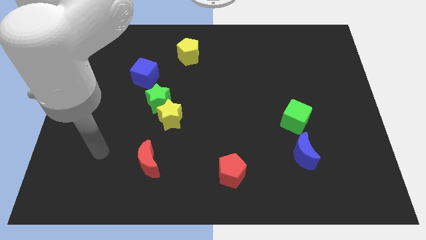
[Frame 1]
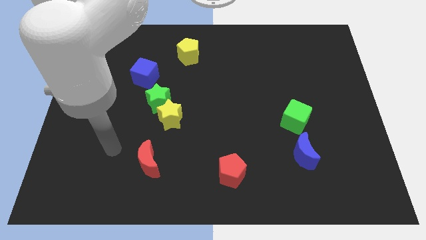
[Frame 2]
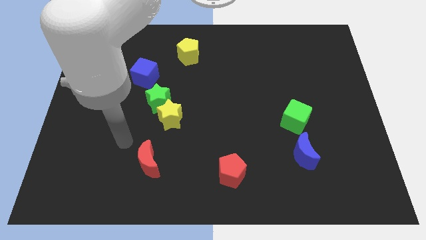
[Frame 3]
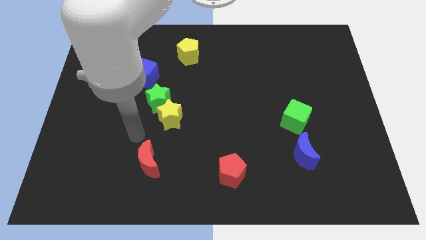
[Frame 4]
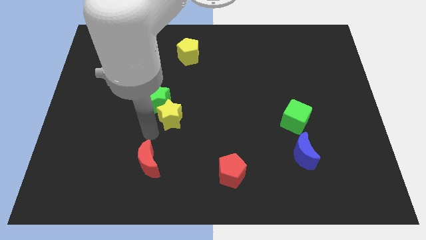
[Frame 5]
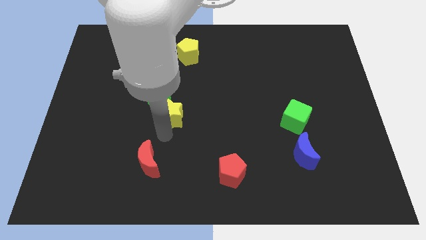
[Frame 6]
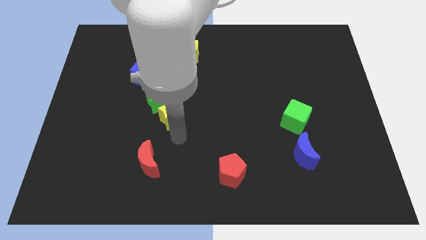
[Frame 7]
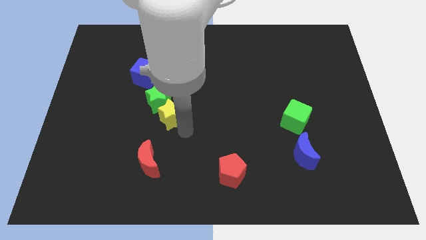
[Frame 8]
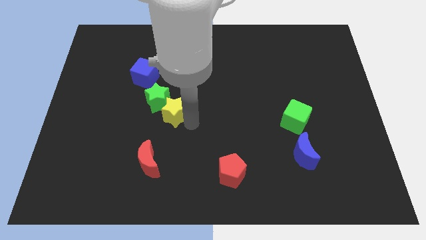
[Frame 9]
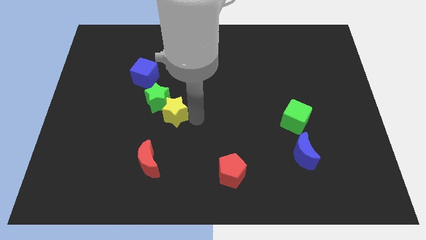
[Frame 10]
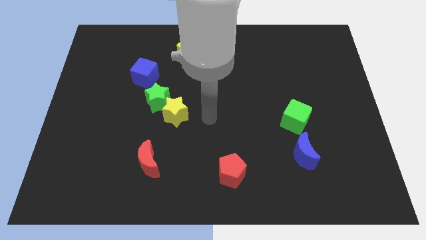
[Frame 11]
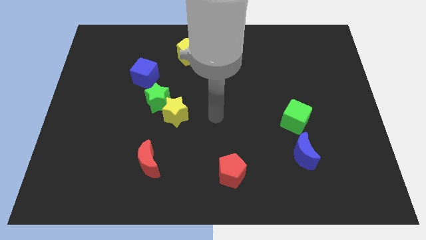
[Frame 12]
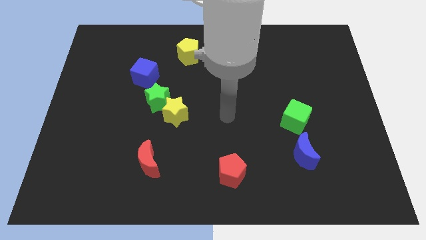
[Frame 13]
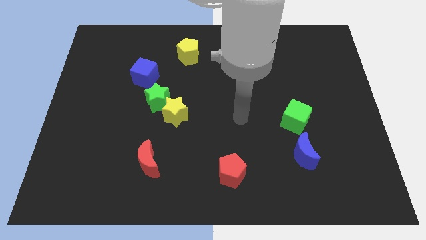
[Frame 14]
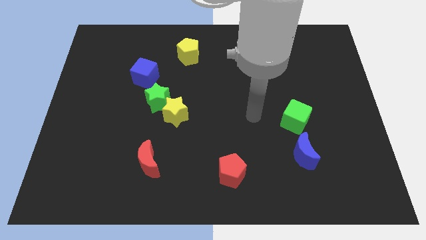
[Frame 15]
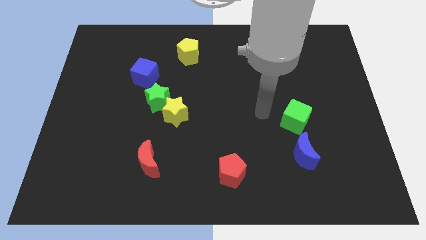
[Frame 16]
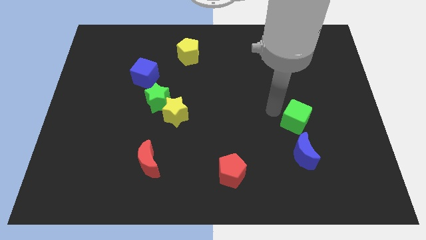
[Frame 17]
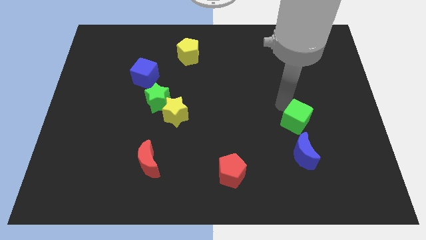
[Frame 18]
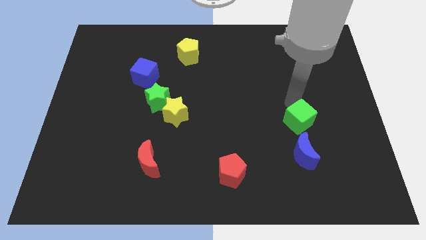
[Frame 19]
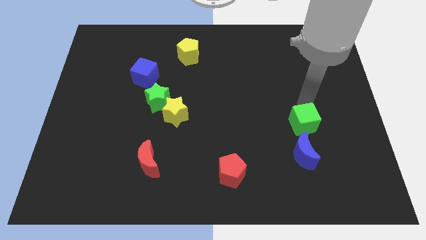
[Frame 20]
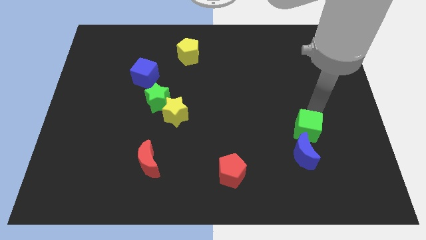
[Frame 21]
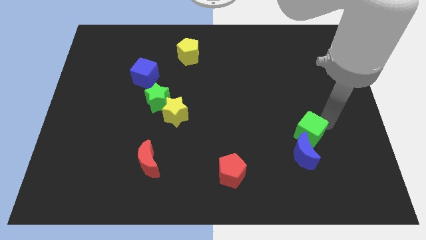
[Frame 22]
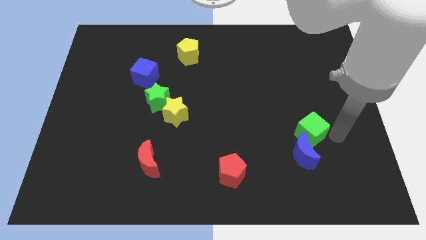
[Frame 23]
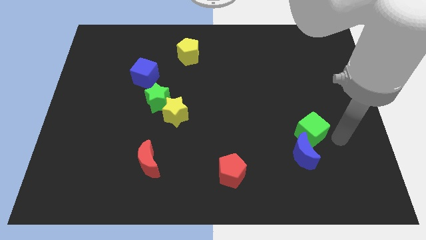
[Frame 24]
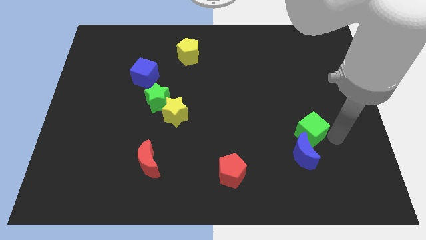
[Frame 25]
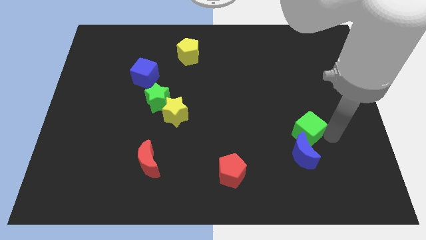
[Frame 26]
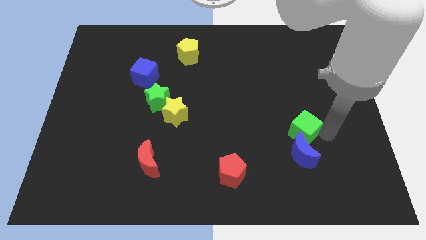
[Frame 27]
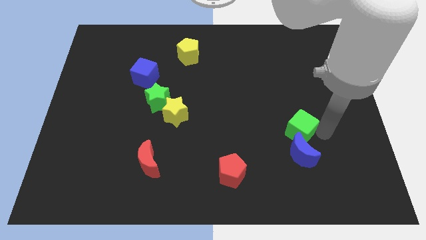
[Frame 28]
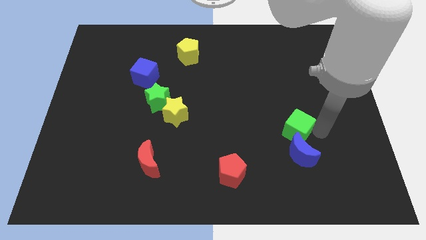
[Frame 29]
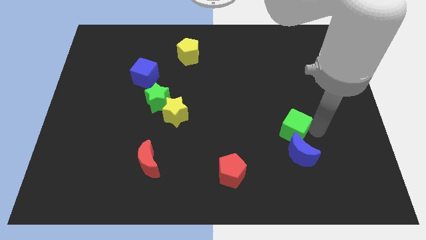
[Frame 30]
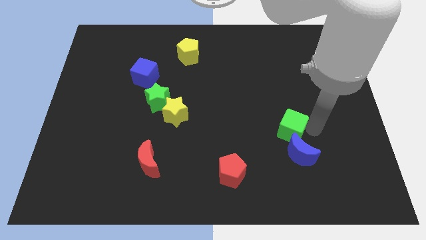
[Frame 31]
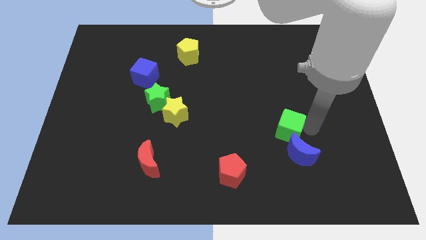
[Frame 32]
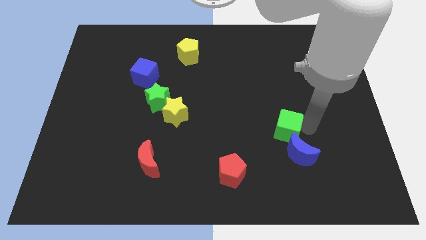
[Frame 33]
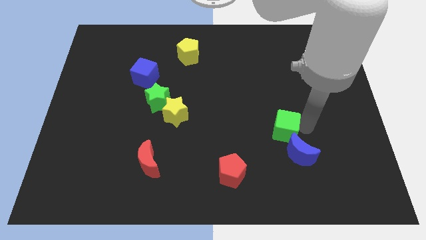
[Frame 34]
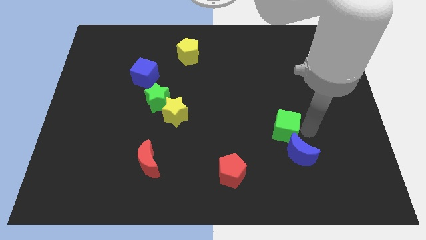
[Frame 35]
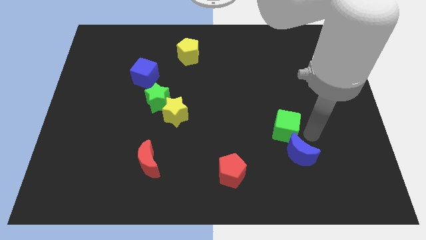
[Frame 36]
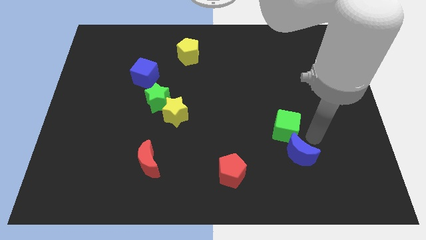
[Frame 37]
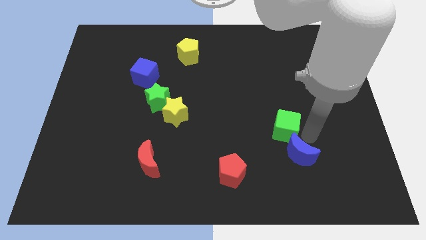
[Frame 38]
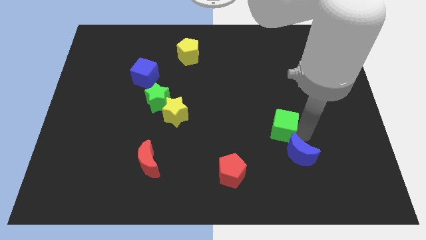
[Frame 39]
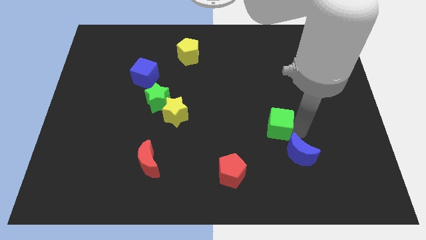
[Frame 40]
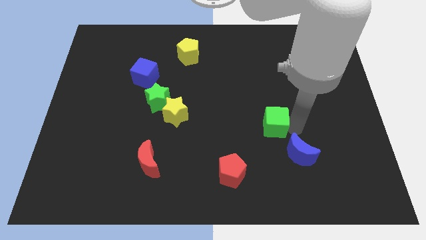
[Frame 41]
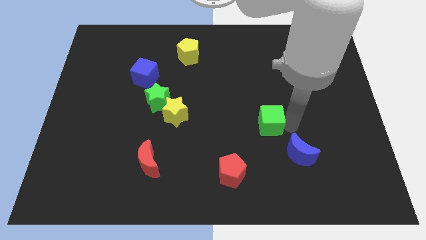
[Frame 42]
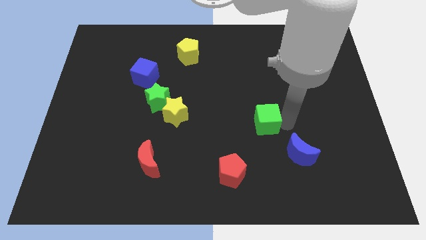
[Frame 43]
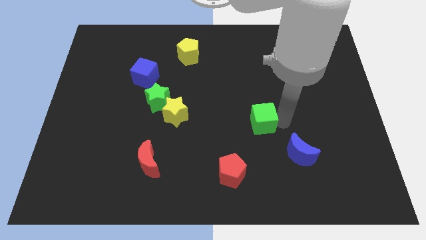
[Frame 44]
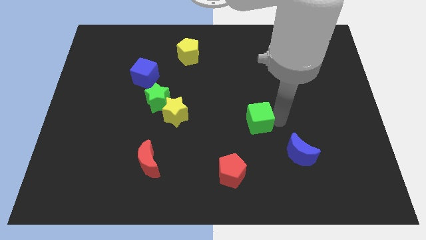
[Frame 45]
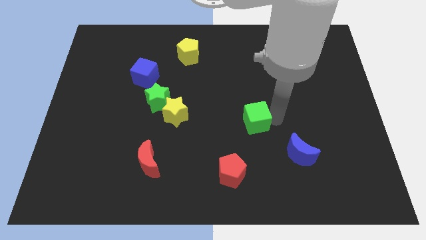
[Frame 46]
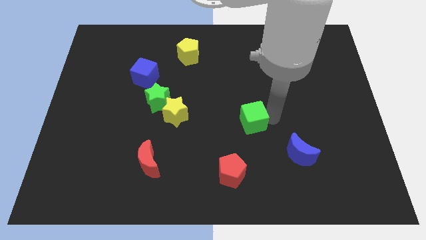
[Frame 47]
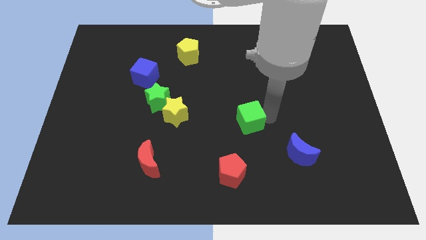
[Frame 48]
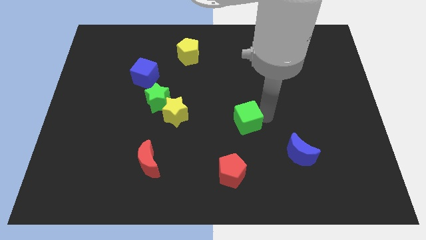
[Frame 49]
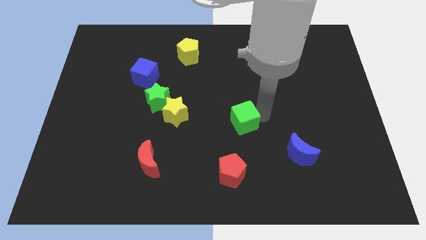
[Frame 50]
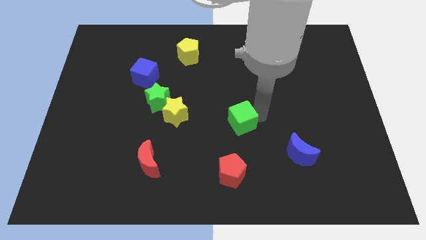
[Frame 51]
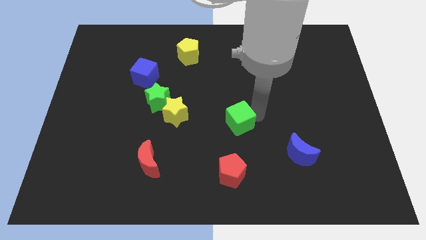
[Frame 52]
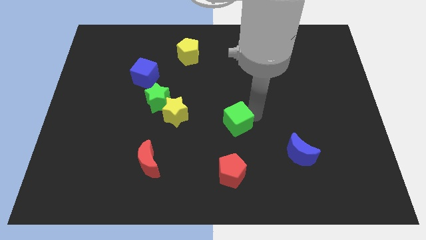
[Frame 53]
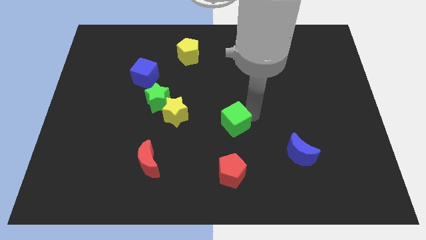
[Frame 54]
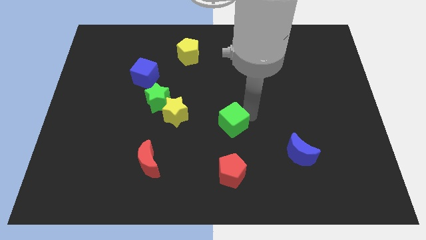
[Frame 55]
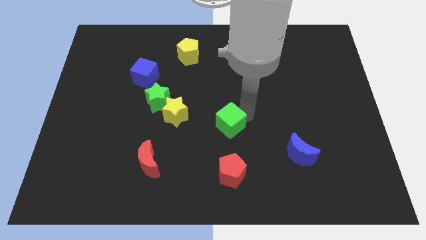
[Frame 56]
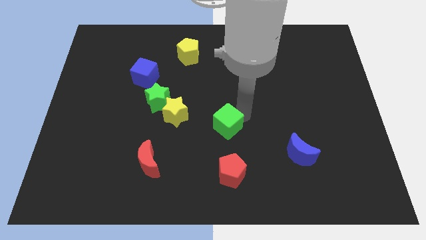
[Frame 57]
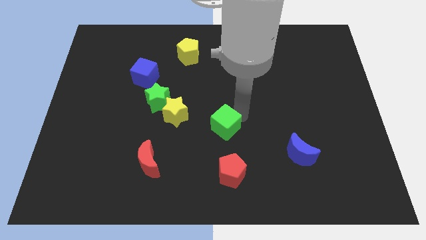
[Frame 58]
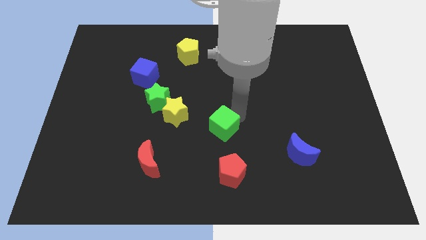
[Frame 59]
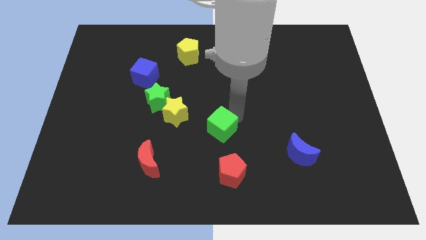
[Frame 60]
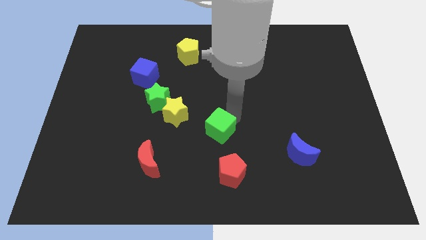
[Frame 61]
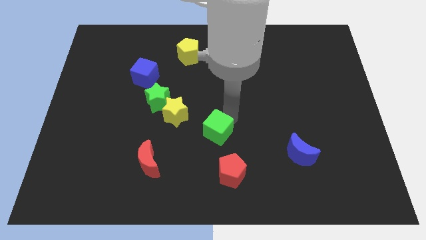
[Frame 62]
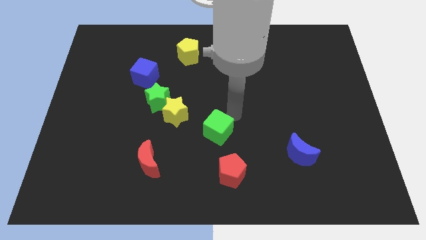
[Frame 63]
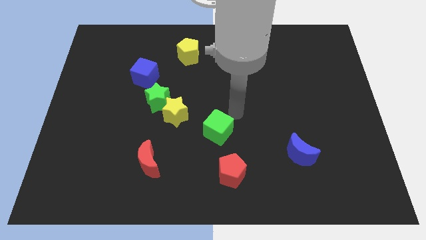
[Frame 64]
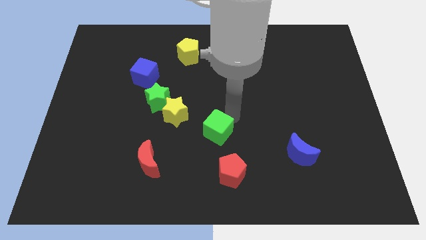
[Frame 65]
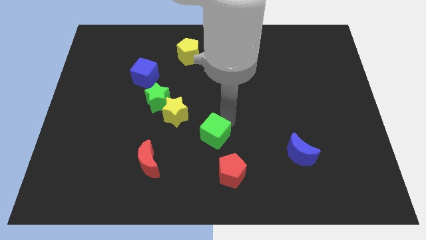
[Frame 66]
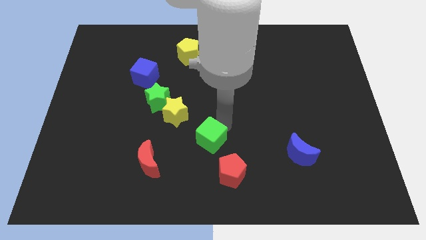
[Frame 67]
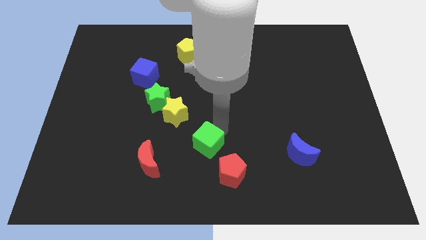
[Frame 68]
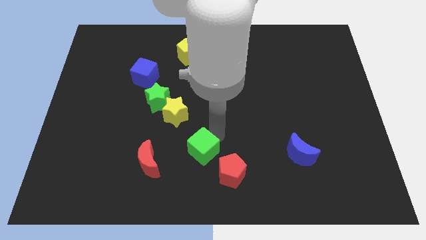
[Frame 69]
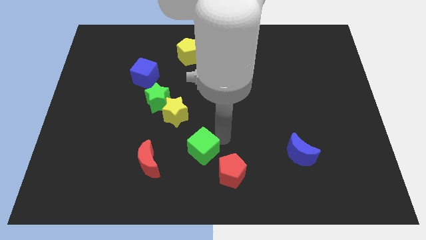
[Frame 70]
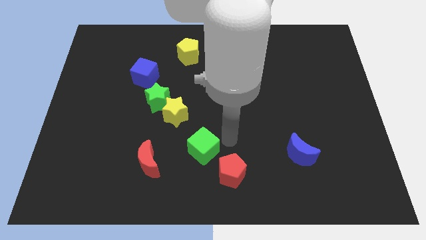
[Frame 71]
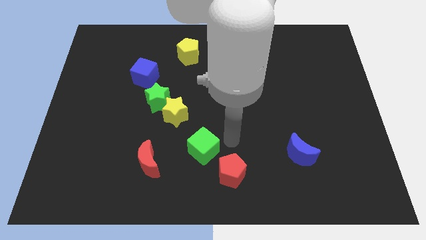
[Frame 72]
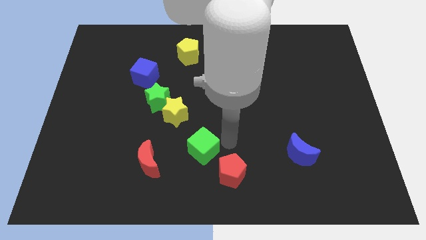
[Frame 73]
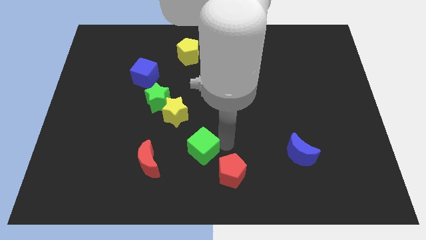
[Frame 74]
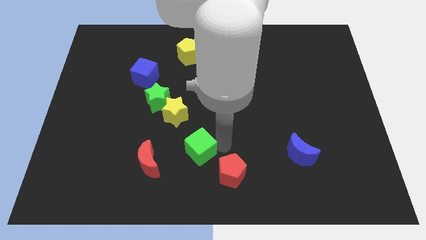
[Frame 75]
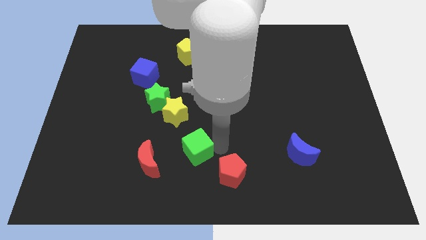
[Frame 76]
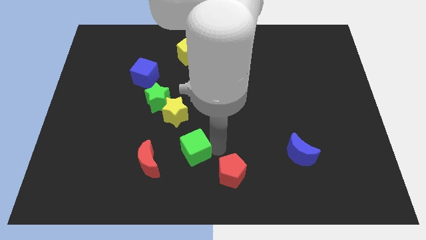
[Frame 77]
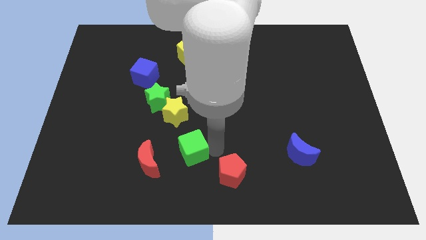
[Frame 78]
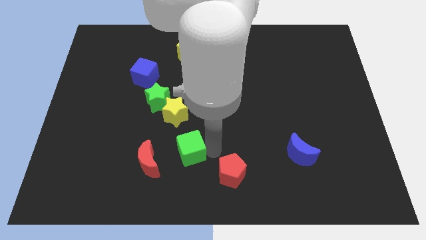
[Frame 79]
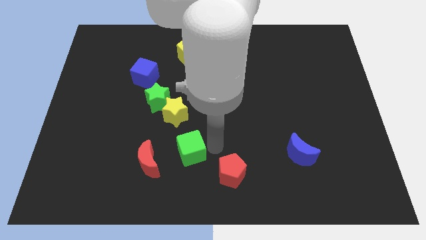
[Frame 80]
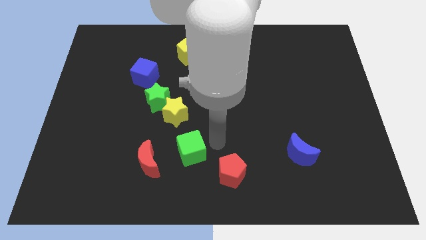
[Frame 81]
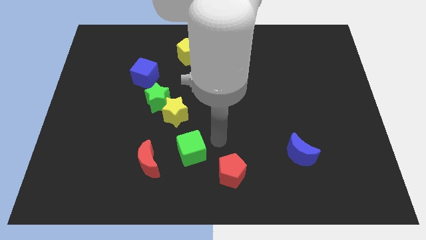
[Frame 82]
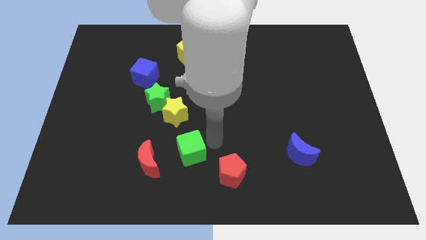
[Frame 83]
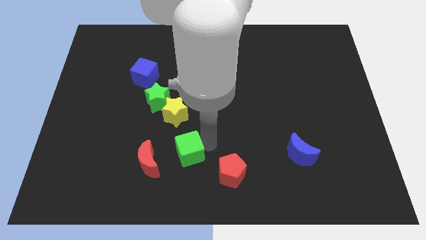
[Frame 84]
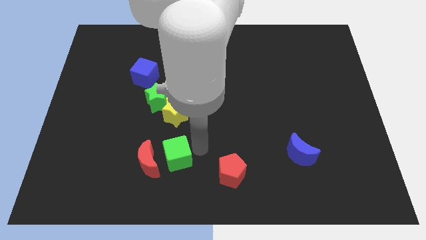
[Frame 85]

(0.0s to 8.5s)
put the green cube next to the red moon
